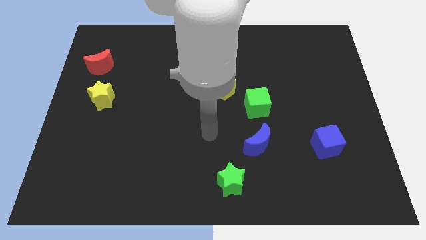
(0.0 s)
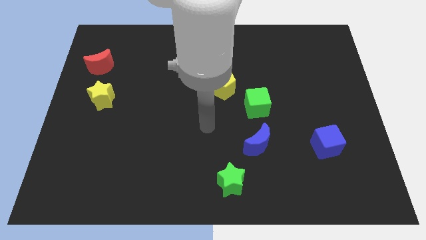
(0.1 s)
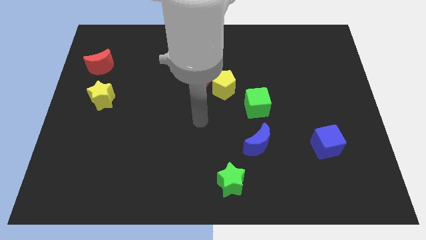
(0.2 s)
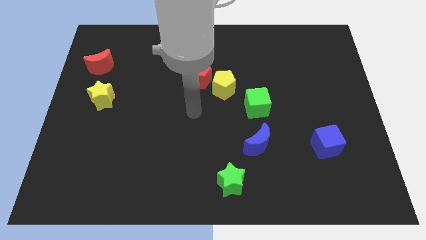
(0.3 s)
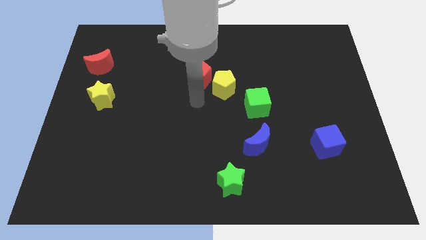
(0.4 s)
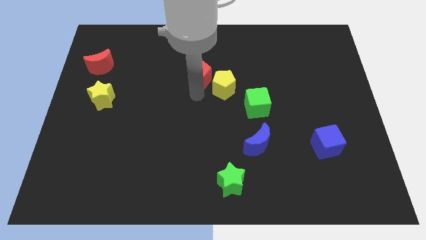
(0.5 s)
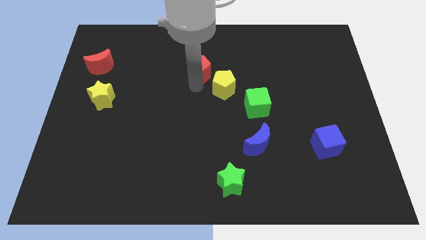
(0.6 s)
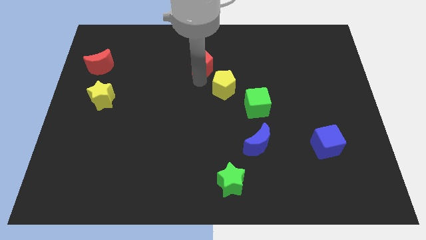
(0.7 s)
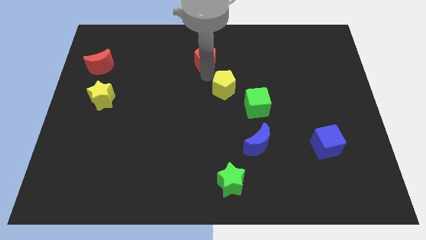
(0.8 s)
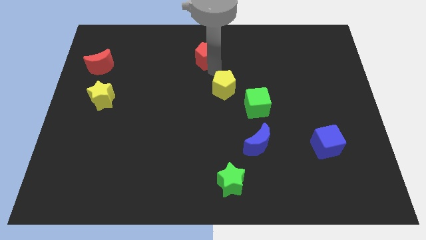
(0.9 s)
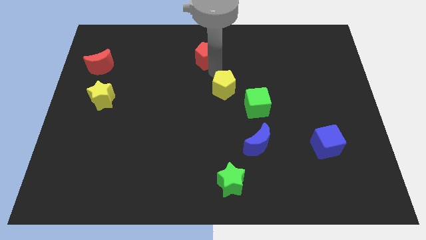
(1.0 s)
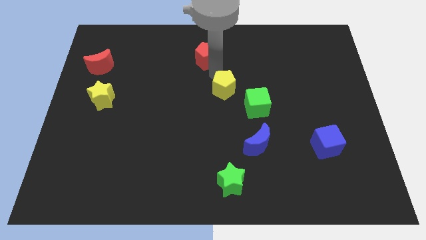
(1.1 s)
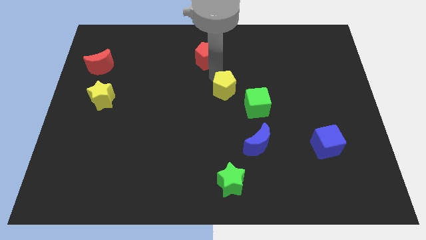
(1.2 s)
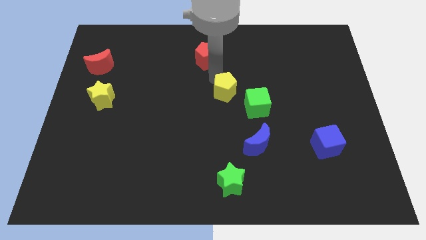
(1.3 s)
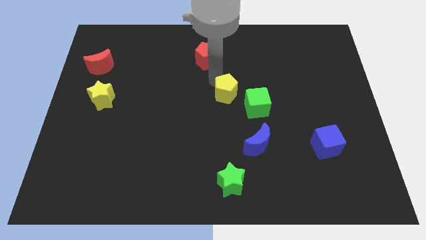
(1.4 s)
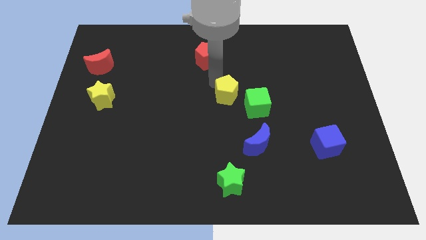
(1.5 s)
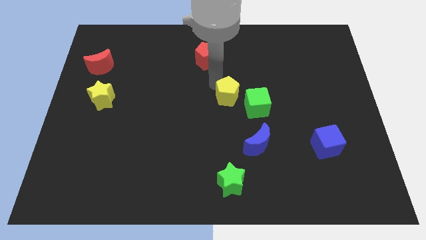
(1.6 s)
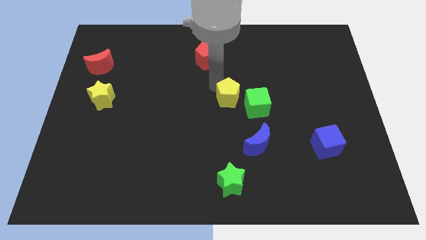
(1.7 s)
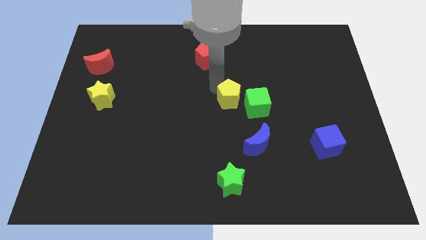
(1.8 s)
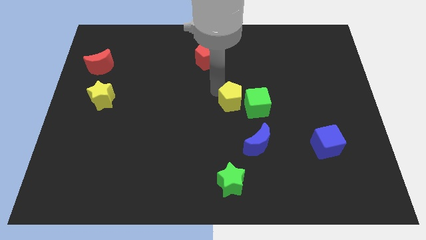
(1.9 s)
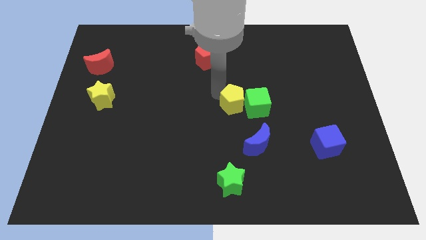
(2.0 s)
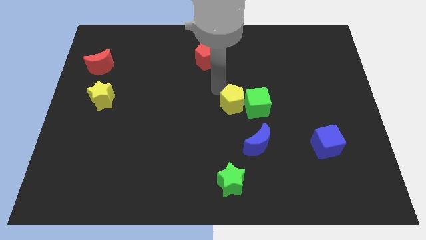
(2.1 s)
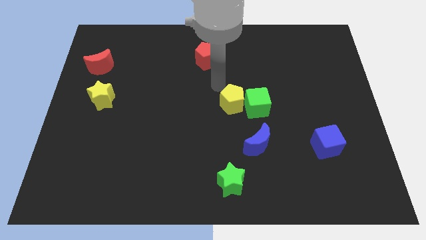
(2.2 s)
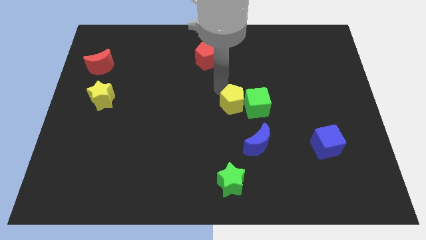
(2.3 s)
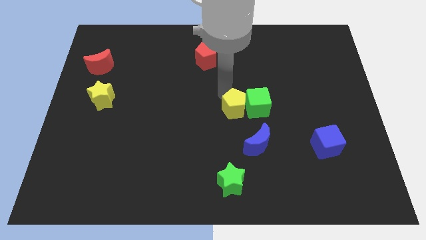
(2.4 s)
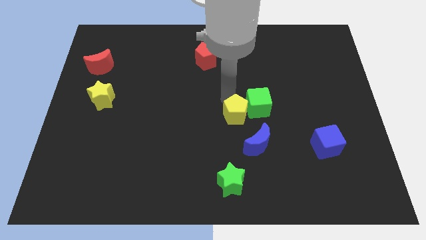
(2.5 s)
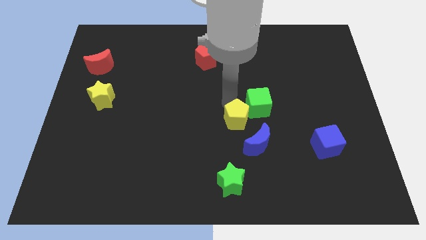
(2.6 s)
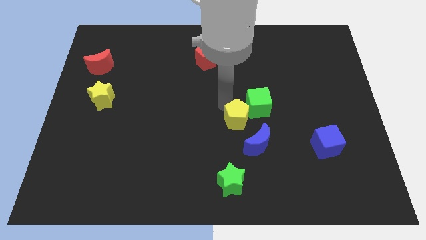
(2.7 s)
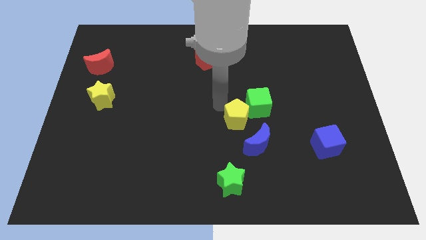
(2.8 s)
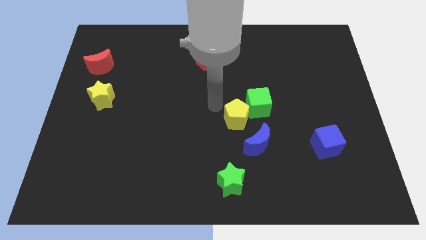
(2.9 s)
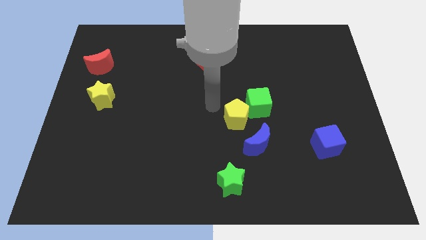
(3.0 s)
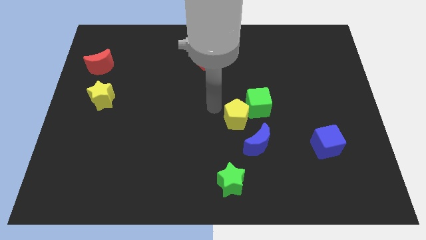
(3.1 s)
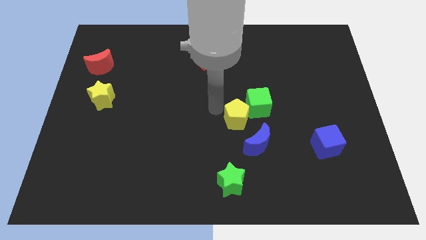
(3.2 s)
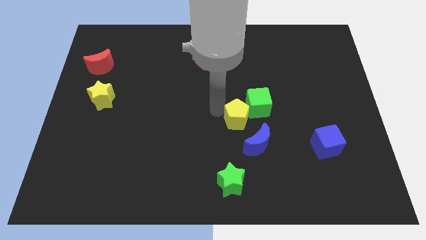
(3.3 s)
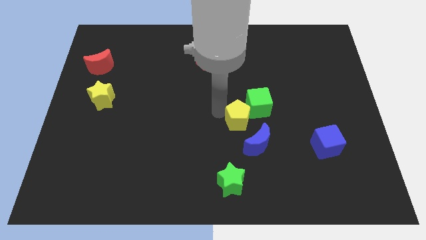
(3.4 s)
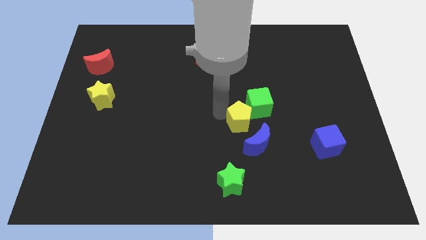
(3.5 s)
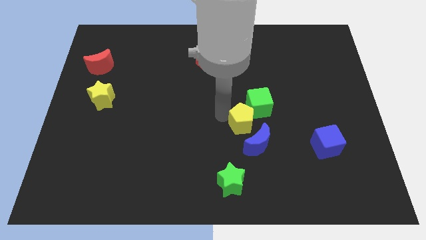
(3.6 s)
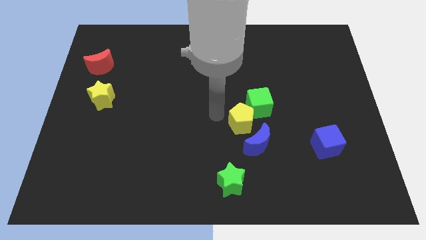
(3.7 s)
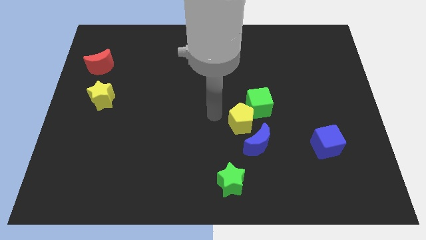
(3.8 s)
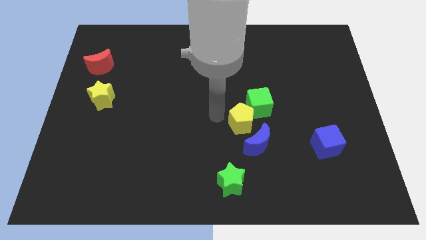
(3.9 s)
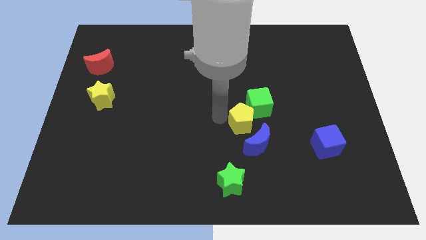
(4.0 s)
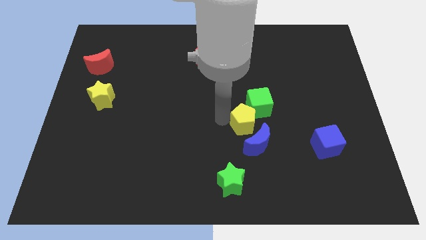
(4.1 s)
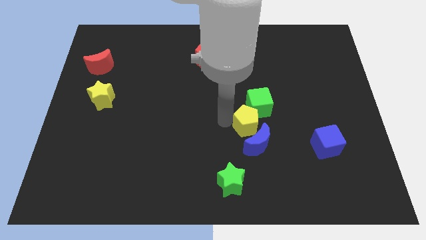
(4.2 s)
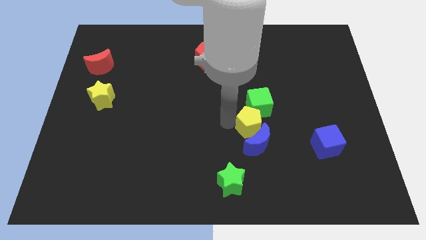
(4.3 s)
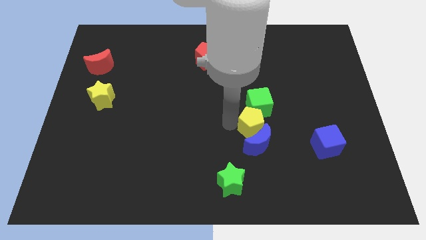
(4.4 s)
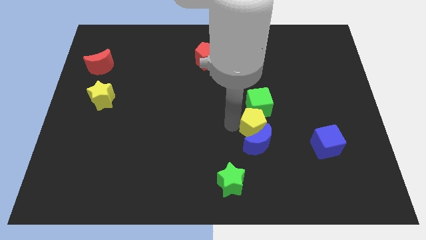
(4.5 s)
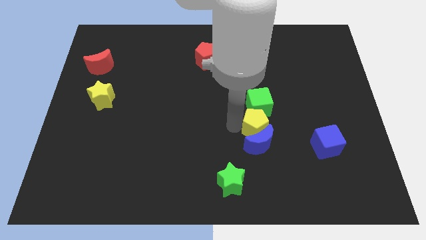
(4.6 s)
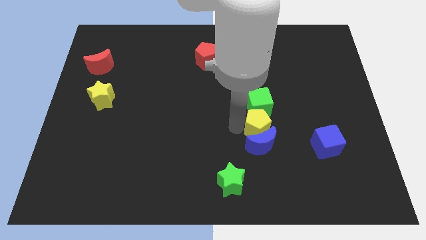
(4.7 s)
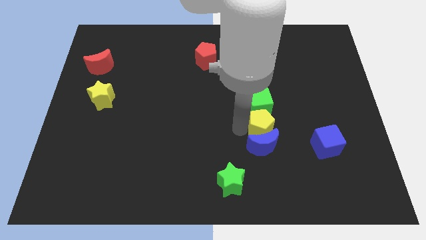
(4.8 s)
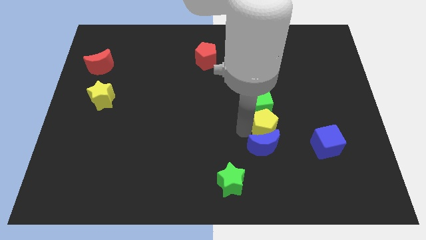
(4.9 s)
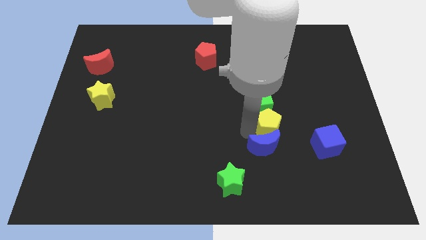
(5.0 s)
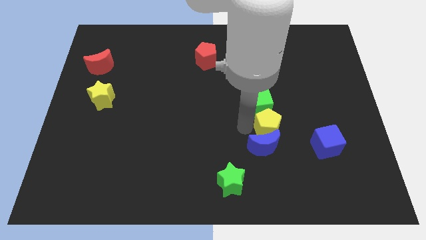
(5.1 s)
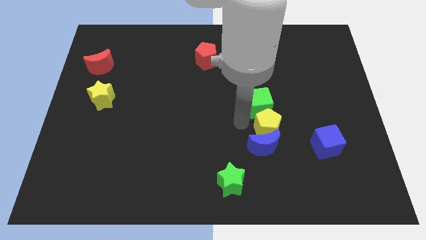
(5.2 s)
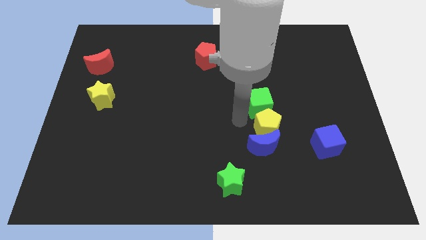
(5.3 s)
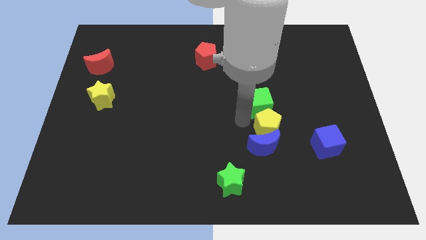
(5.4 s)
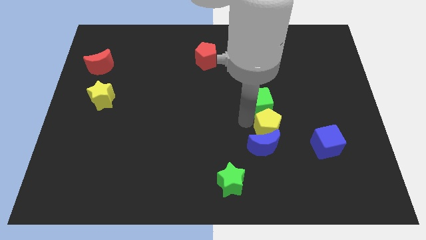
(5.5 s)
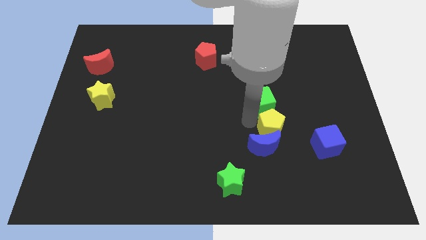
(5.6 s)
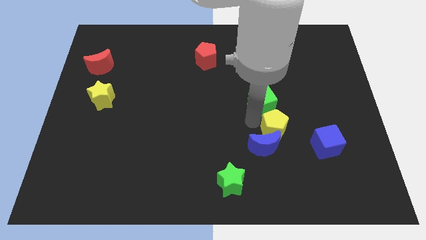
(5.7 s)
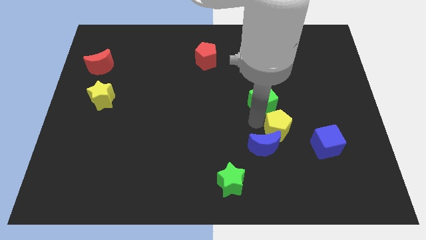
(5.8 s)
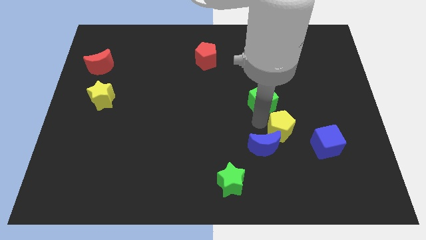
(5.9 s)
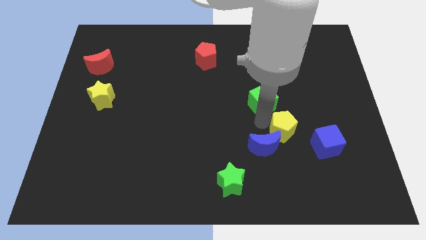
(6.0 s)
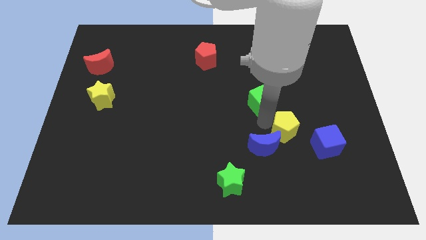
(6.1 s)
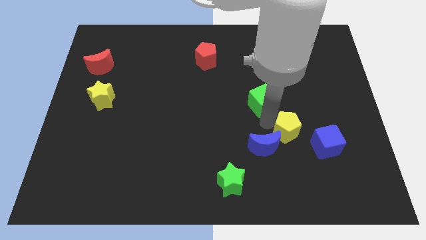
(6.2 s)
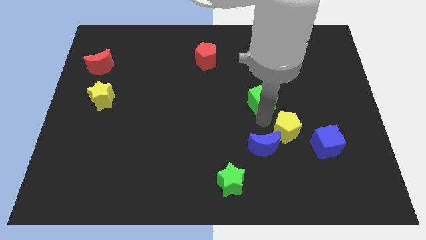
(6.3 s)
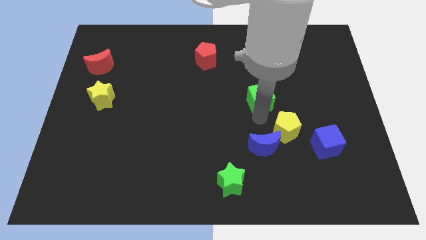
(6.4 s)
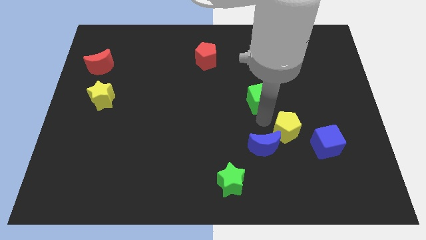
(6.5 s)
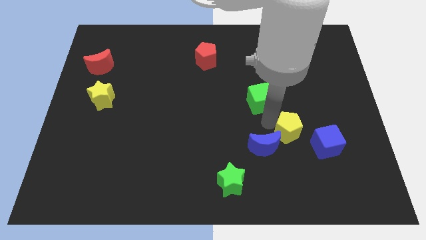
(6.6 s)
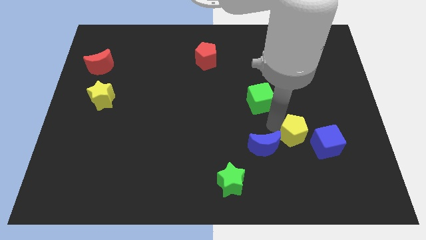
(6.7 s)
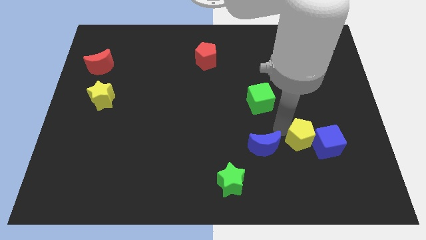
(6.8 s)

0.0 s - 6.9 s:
push the yellow pentagon to the blue cube
